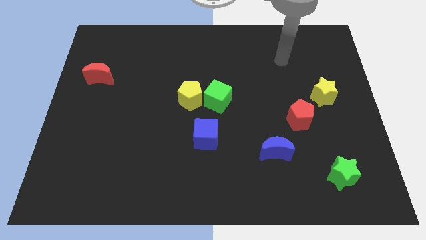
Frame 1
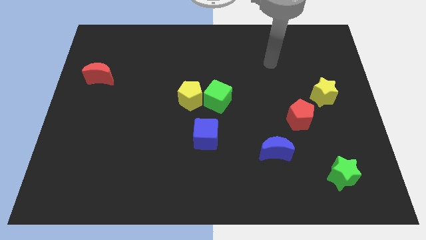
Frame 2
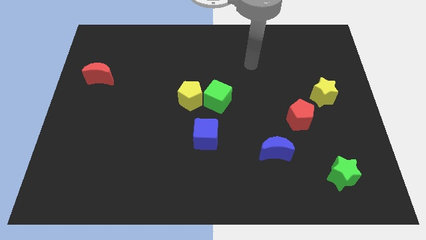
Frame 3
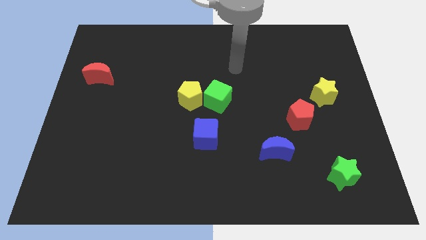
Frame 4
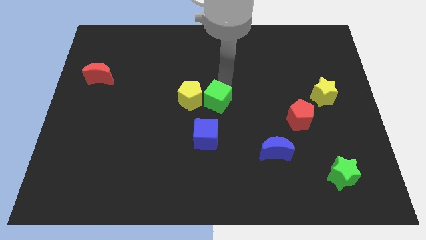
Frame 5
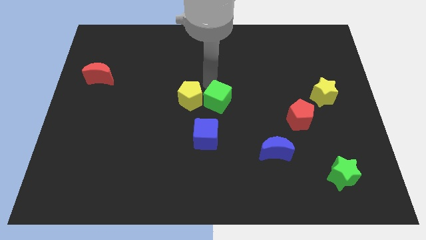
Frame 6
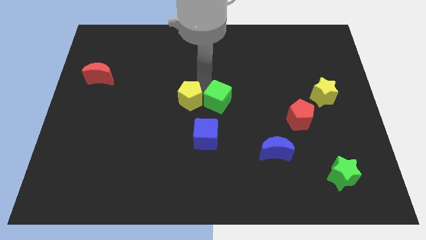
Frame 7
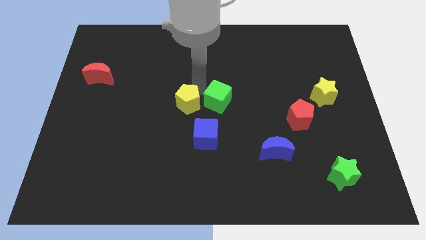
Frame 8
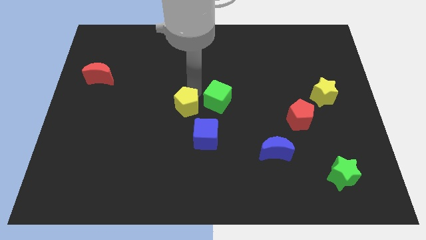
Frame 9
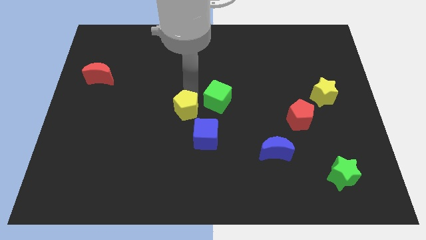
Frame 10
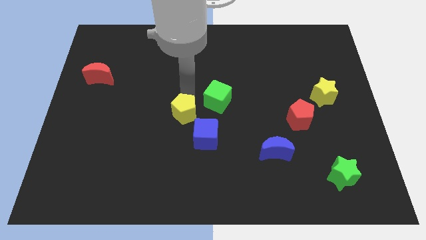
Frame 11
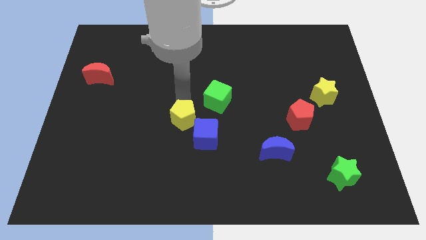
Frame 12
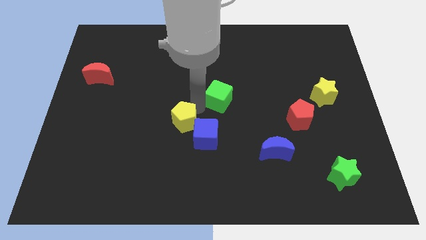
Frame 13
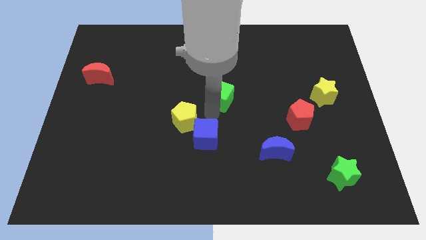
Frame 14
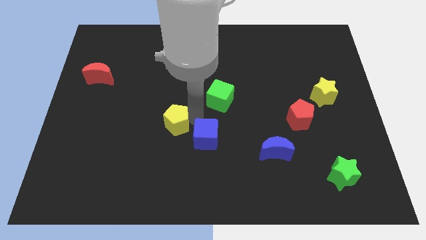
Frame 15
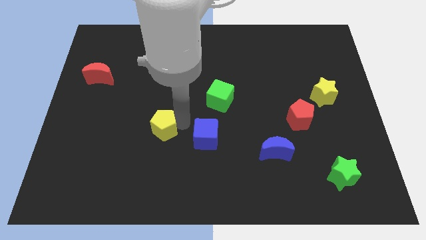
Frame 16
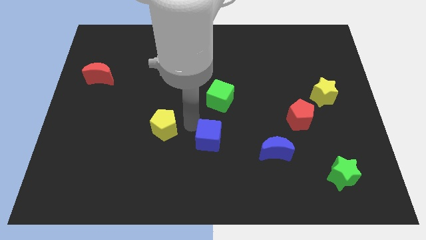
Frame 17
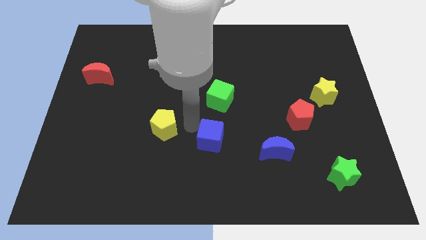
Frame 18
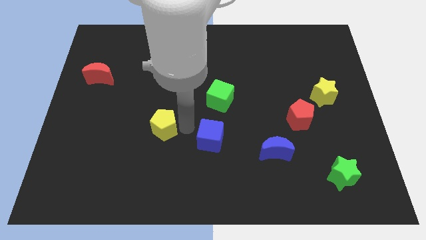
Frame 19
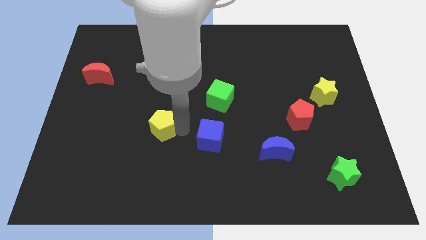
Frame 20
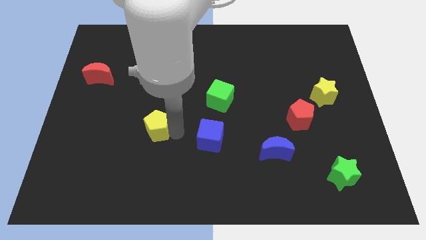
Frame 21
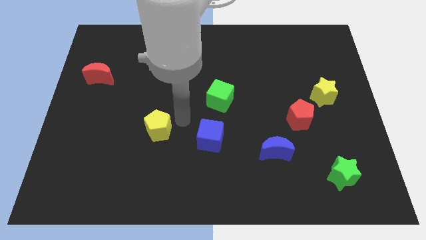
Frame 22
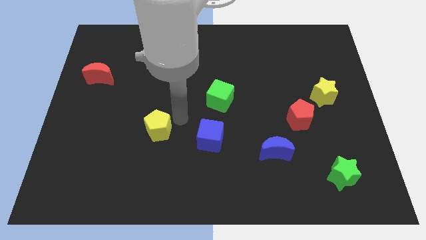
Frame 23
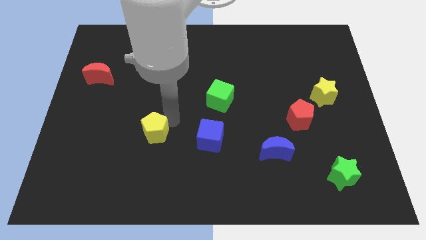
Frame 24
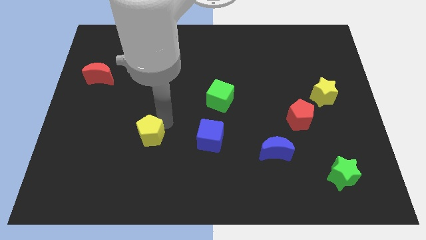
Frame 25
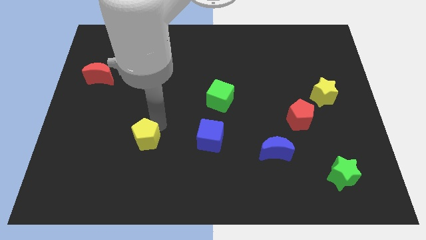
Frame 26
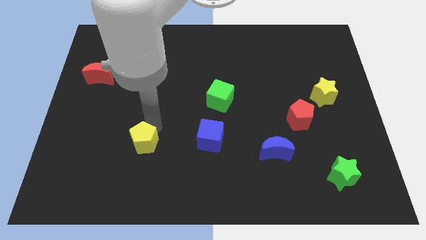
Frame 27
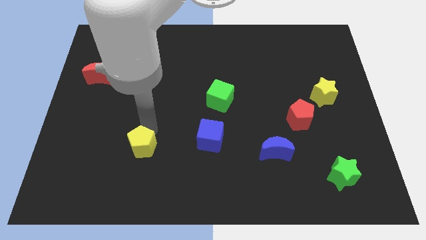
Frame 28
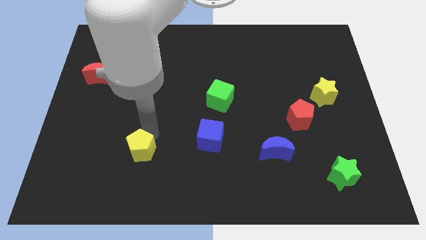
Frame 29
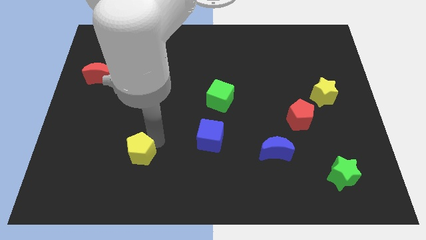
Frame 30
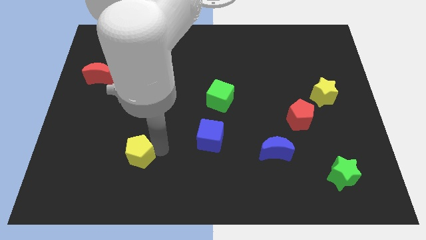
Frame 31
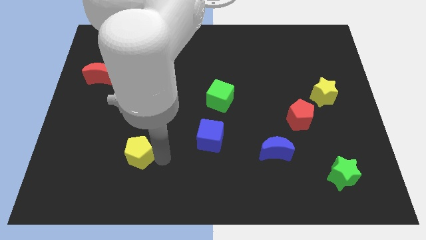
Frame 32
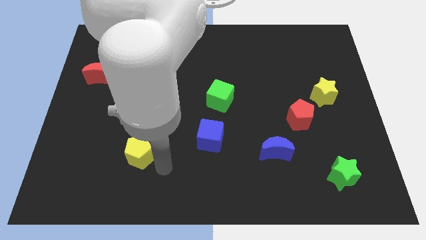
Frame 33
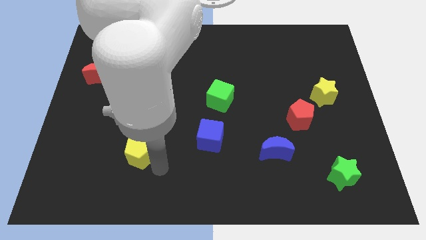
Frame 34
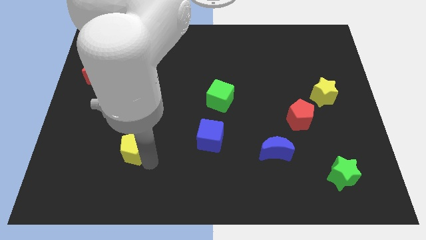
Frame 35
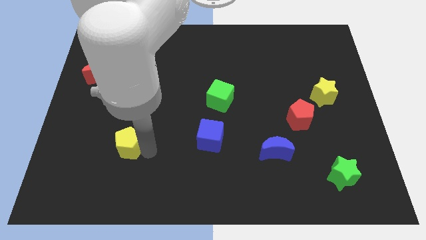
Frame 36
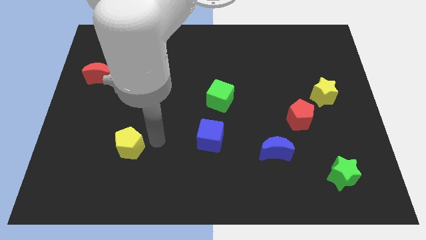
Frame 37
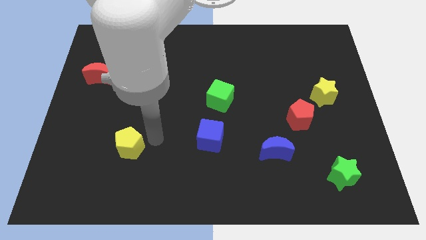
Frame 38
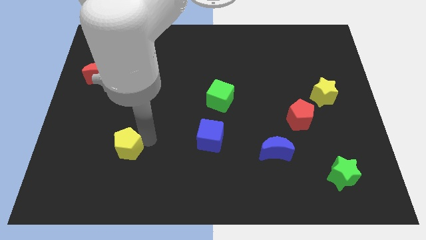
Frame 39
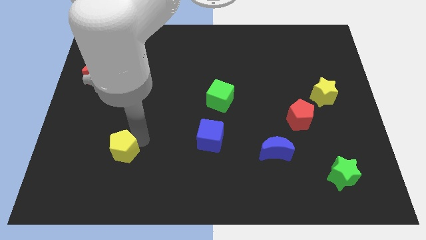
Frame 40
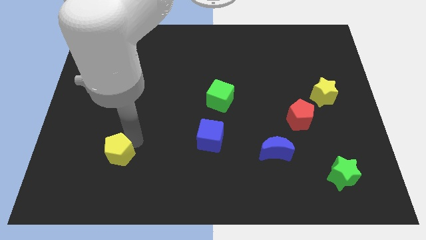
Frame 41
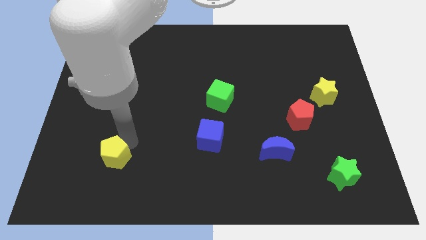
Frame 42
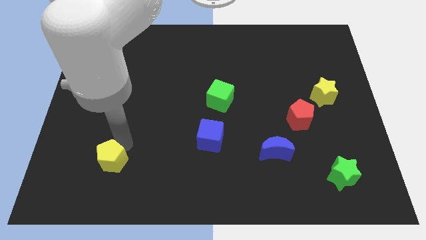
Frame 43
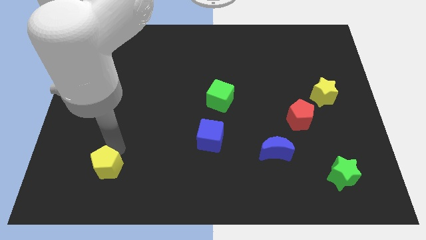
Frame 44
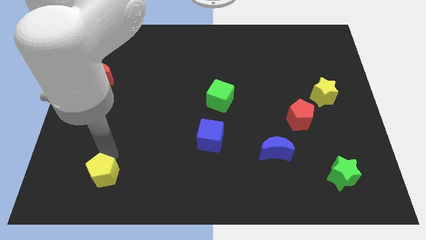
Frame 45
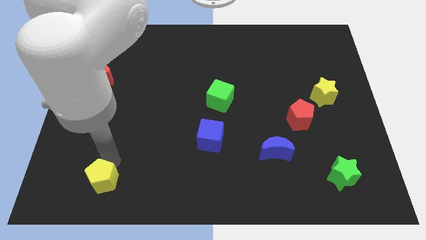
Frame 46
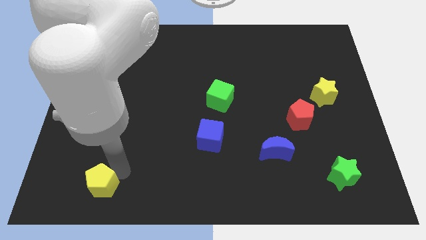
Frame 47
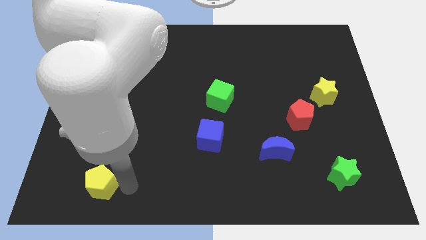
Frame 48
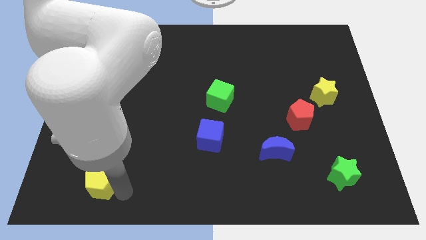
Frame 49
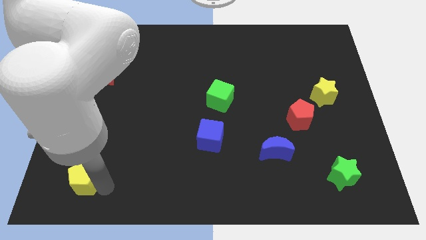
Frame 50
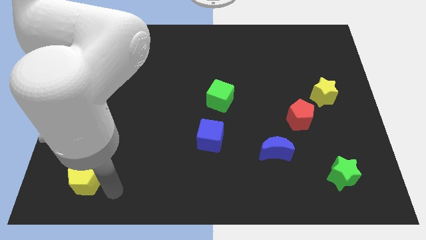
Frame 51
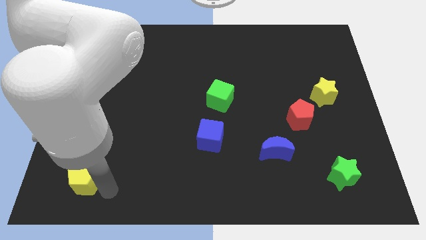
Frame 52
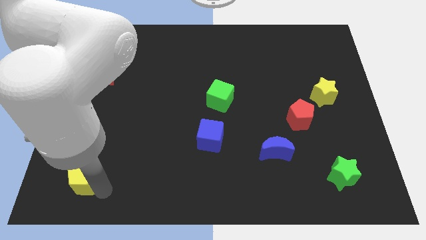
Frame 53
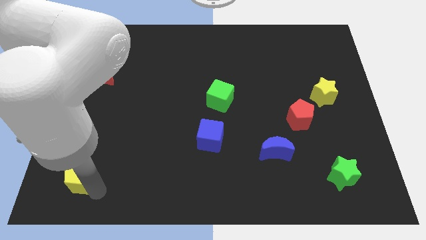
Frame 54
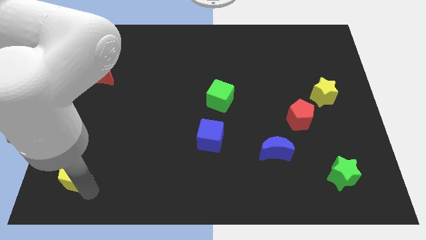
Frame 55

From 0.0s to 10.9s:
put the yellow pentagon to the bottom left of the board

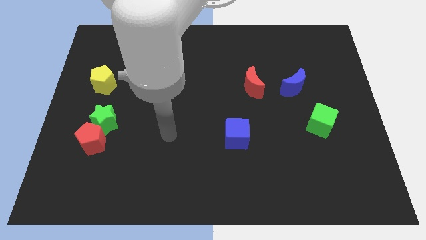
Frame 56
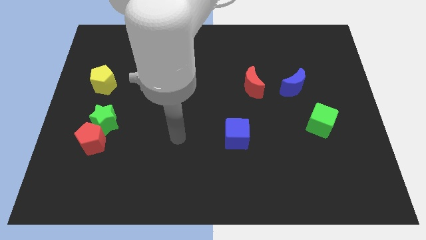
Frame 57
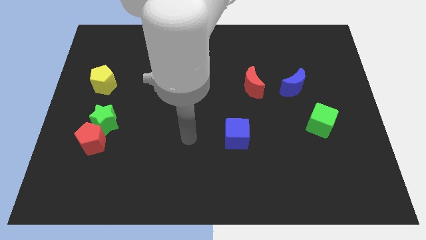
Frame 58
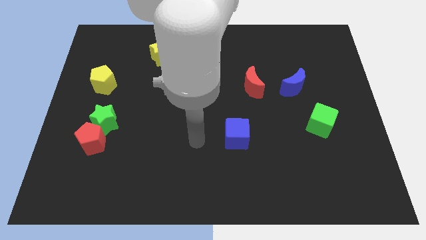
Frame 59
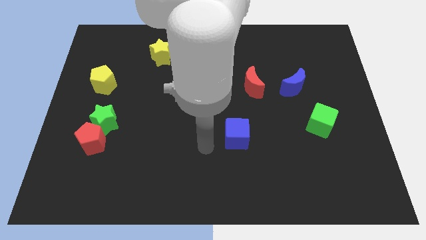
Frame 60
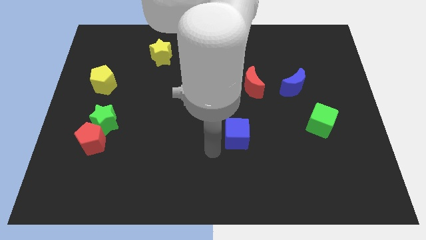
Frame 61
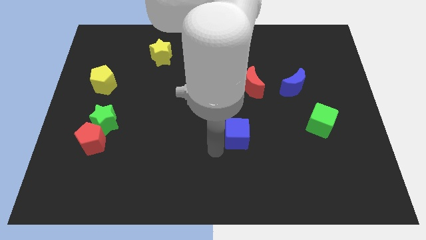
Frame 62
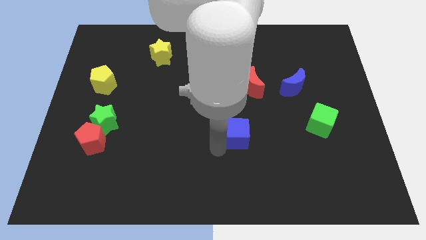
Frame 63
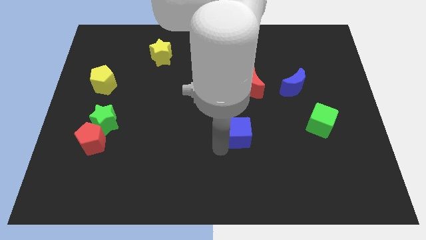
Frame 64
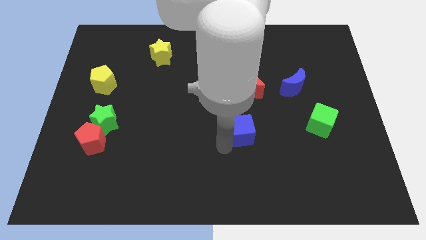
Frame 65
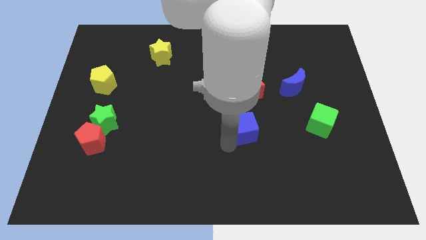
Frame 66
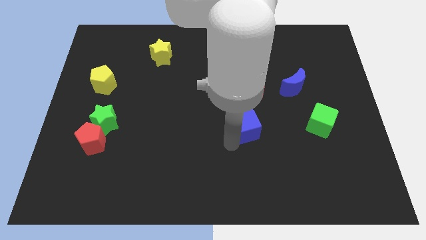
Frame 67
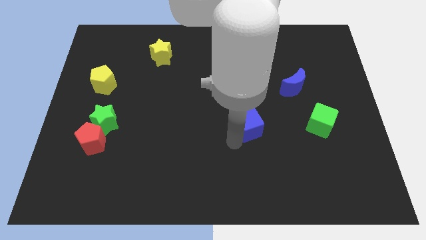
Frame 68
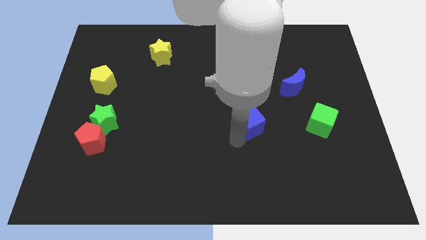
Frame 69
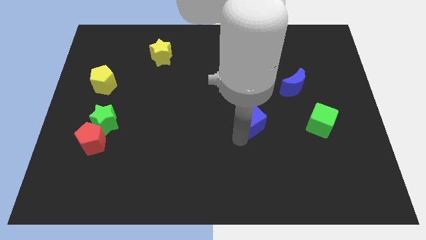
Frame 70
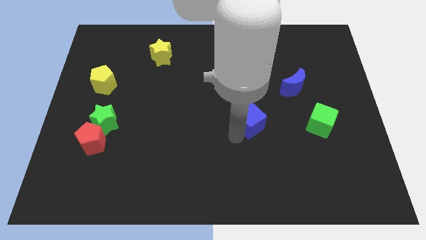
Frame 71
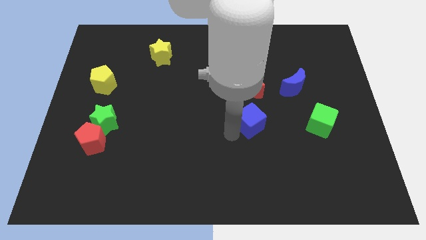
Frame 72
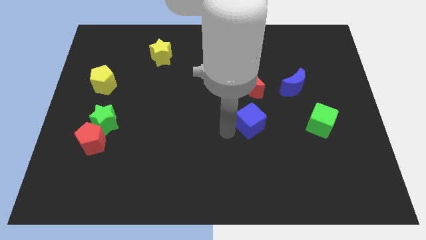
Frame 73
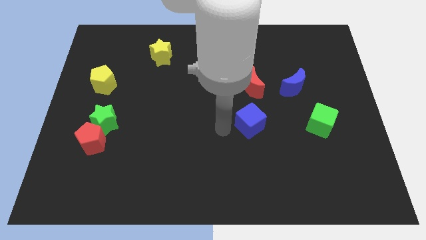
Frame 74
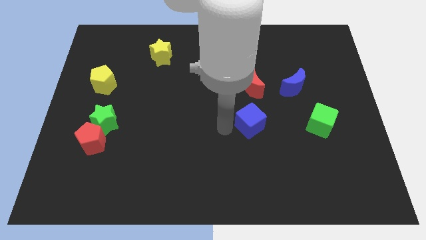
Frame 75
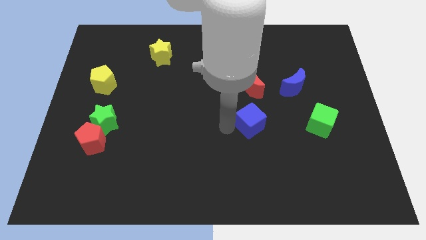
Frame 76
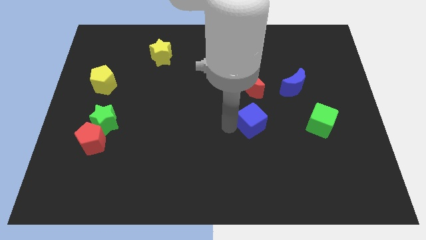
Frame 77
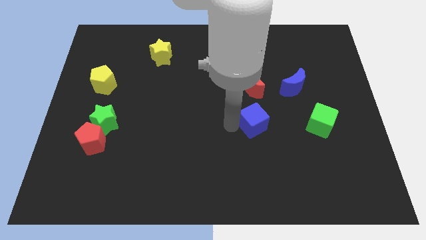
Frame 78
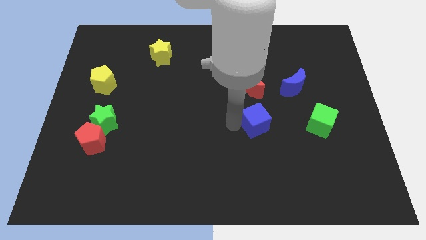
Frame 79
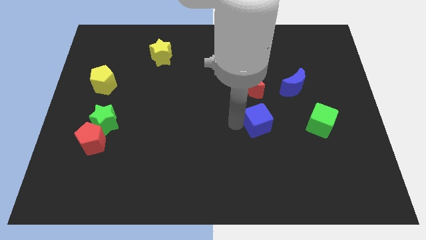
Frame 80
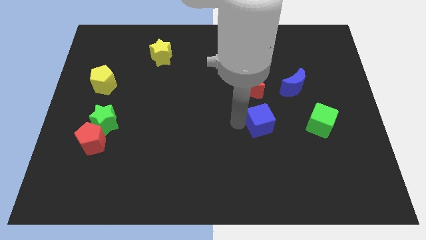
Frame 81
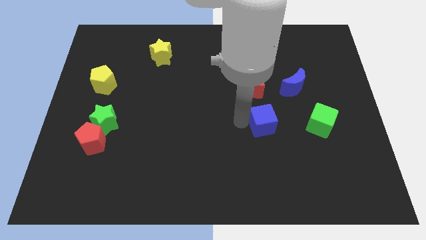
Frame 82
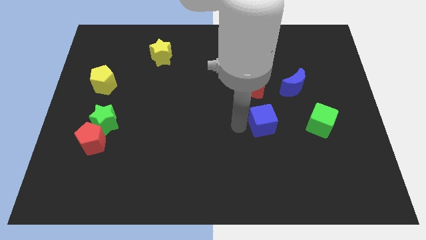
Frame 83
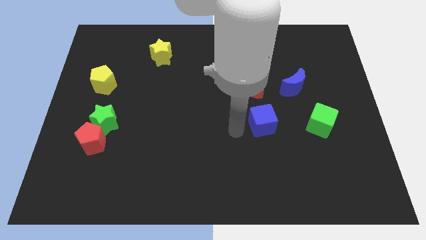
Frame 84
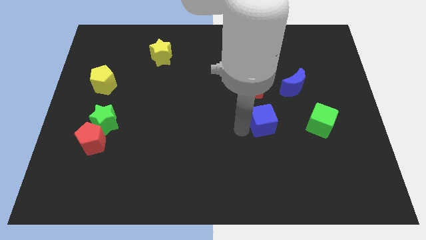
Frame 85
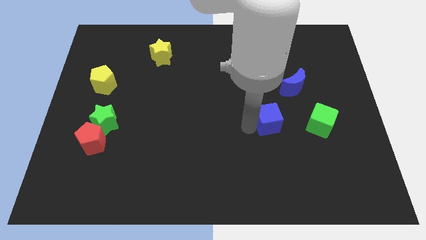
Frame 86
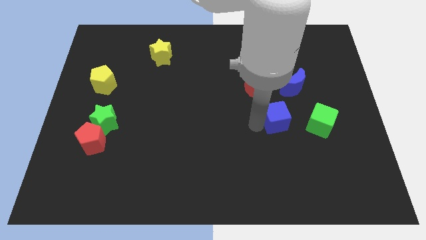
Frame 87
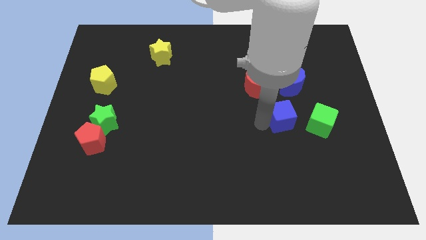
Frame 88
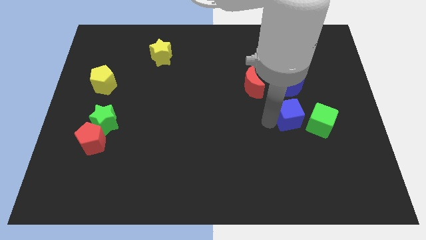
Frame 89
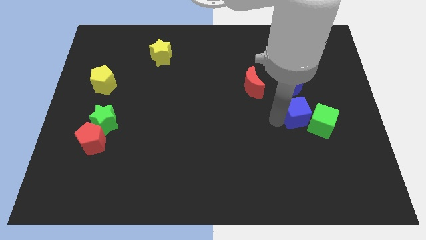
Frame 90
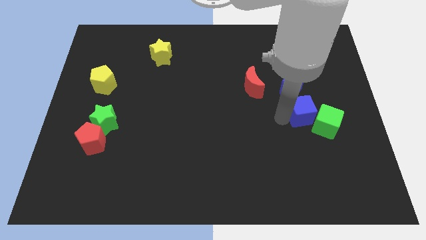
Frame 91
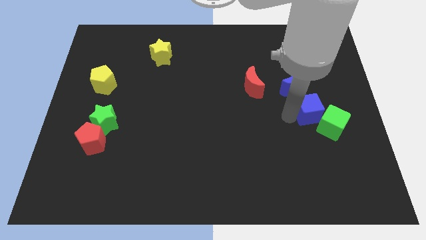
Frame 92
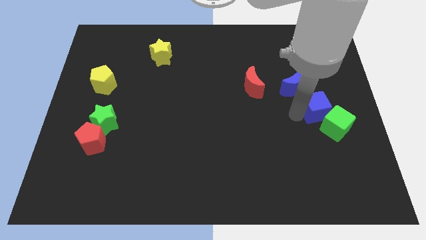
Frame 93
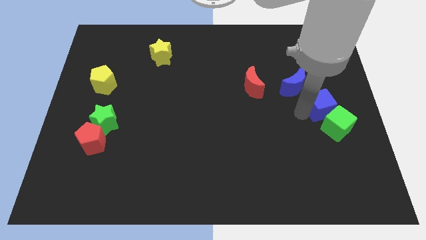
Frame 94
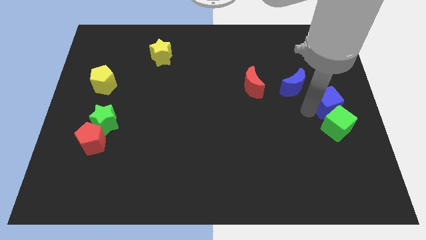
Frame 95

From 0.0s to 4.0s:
put the blue cube to the center right
